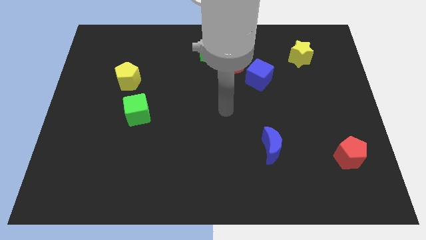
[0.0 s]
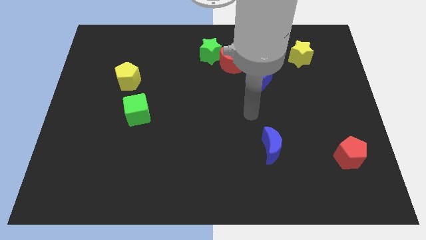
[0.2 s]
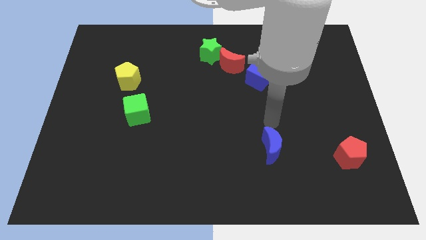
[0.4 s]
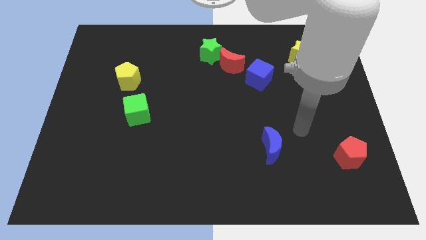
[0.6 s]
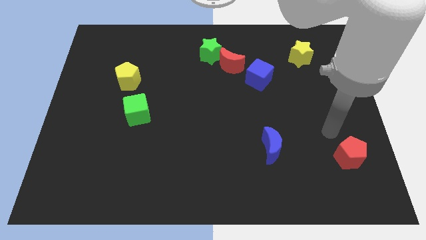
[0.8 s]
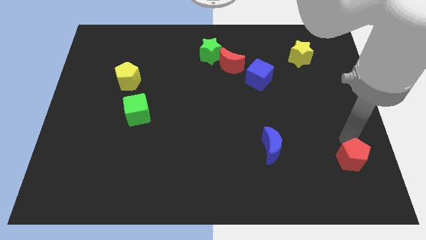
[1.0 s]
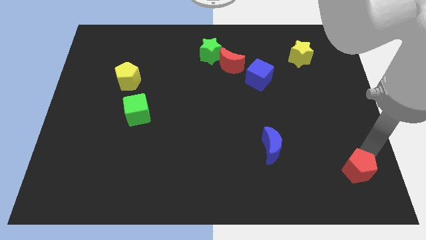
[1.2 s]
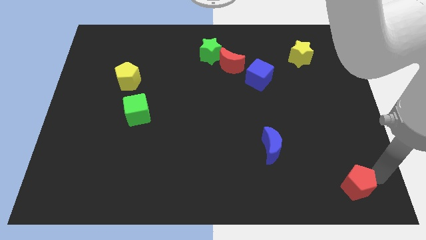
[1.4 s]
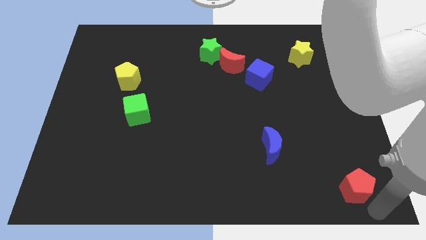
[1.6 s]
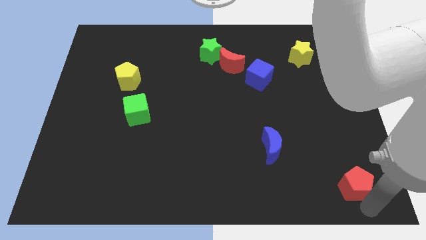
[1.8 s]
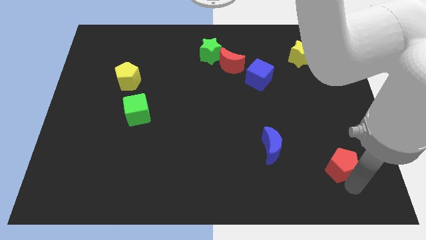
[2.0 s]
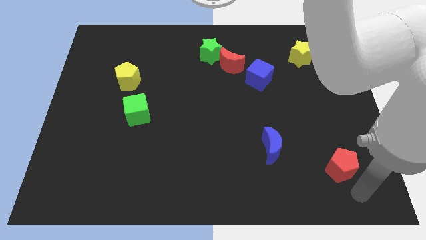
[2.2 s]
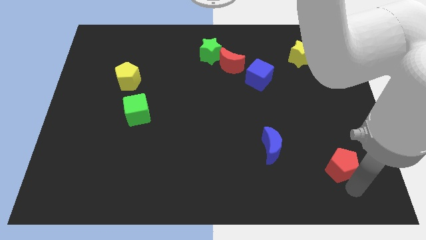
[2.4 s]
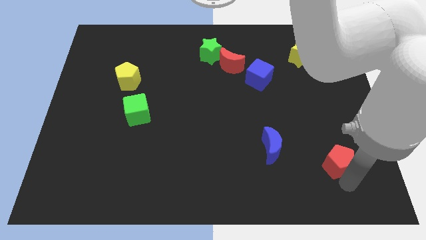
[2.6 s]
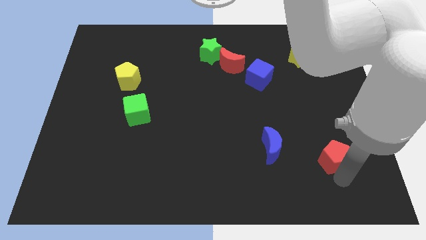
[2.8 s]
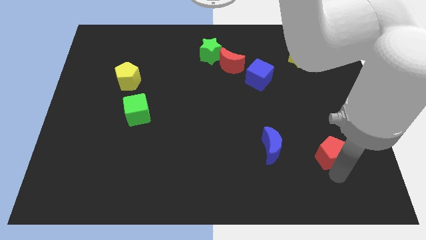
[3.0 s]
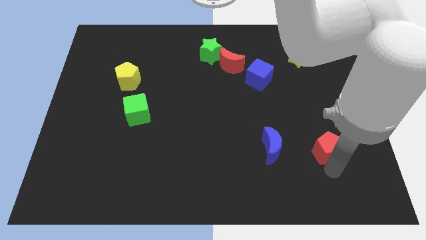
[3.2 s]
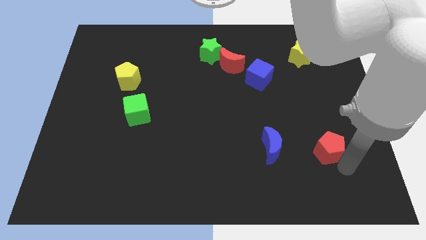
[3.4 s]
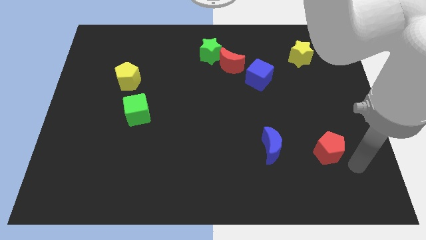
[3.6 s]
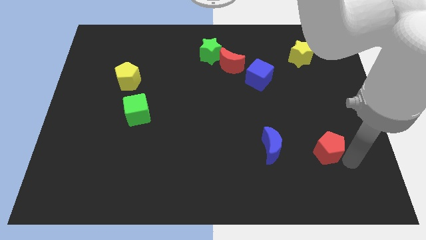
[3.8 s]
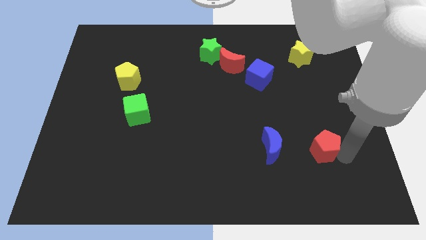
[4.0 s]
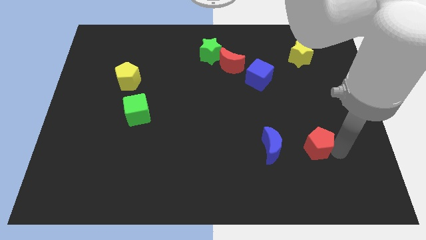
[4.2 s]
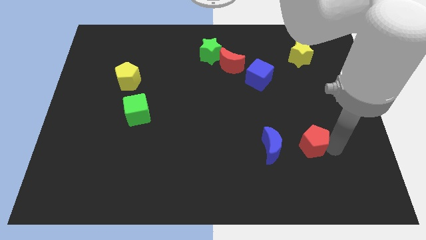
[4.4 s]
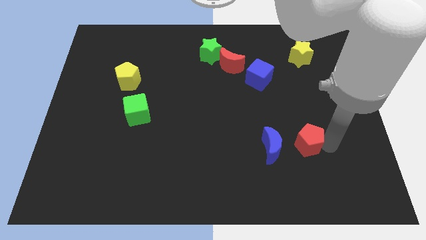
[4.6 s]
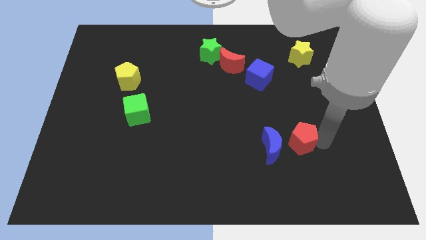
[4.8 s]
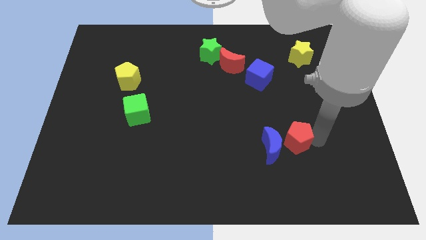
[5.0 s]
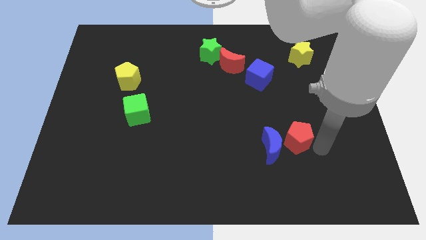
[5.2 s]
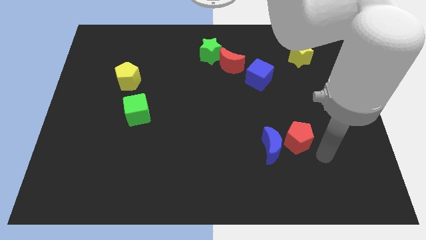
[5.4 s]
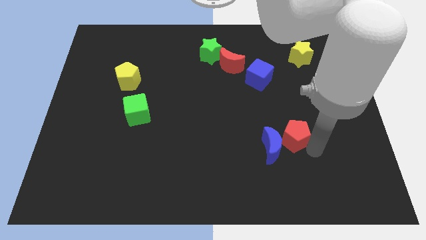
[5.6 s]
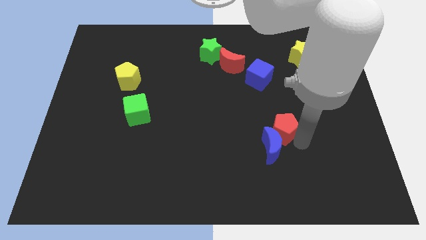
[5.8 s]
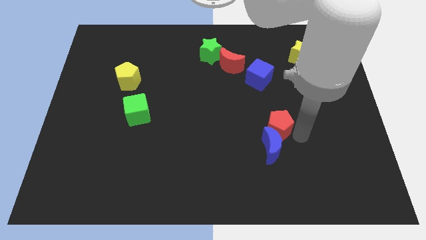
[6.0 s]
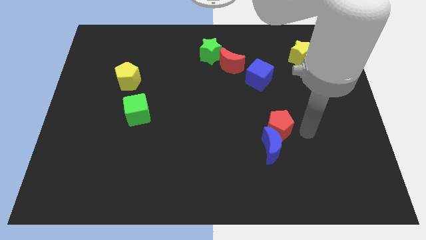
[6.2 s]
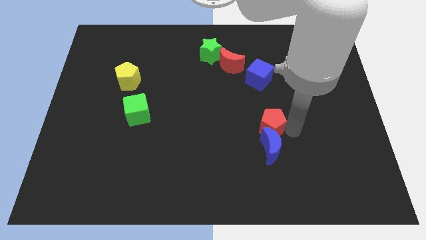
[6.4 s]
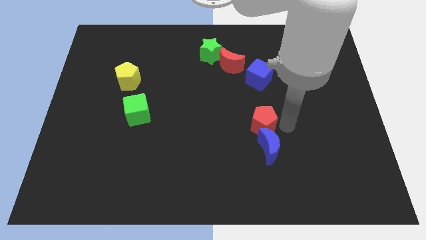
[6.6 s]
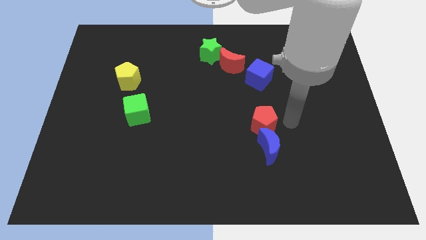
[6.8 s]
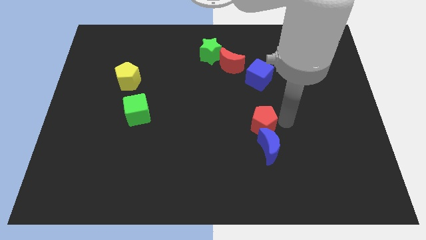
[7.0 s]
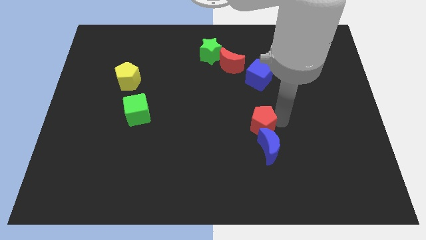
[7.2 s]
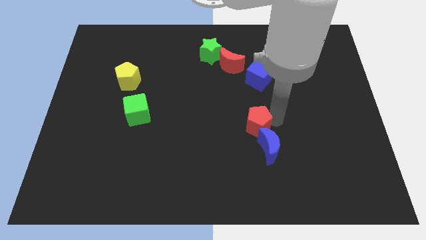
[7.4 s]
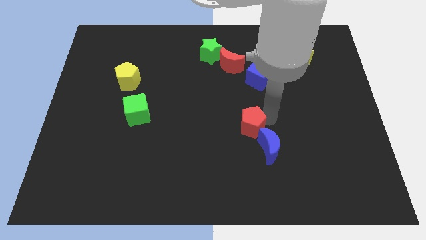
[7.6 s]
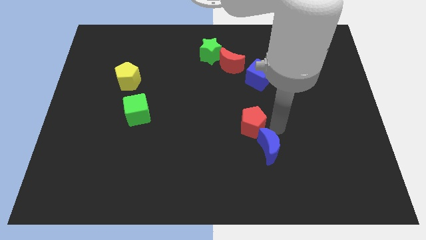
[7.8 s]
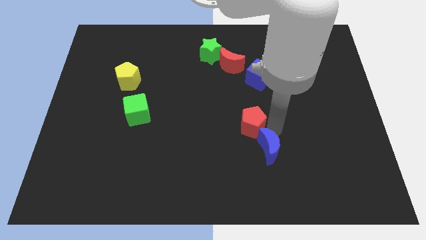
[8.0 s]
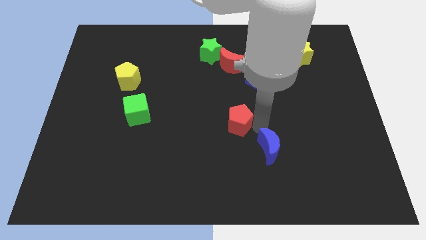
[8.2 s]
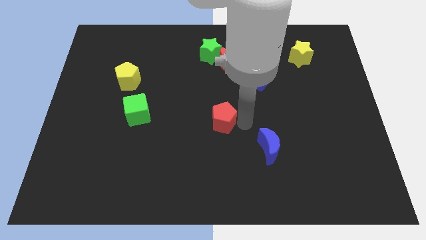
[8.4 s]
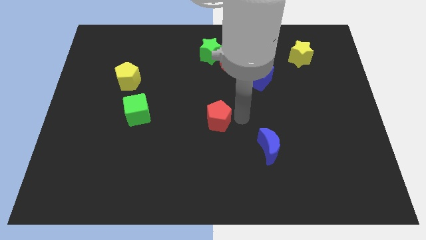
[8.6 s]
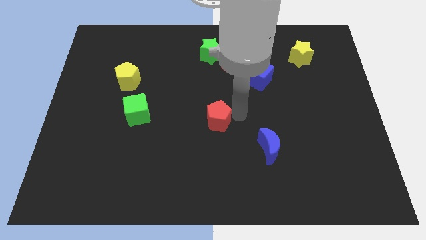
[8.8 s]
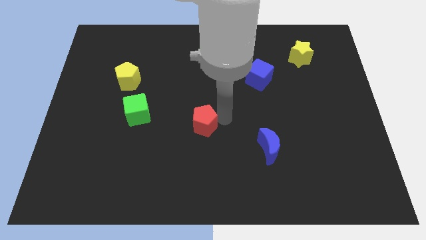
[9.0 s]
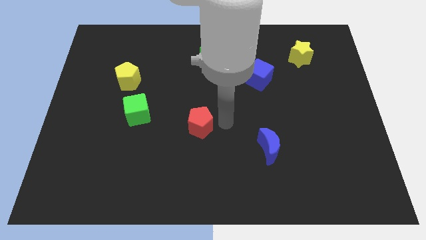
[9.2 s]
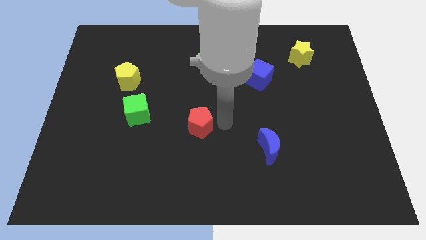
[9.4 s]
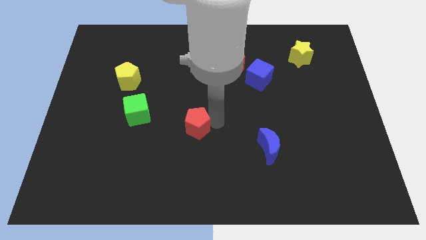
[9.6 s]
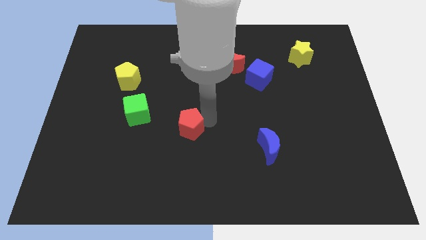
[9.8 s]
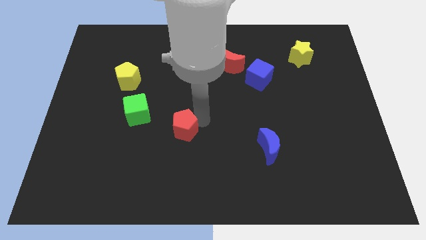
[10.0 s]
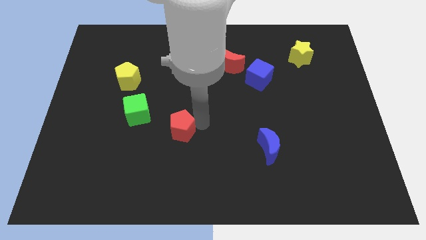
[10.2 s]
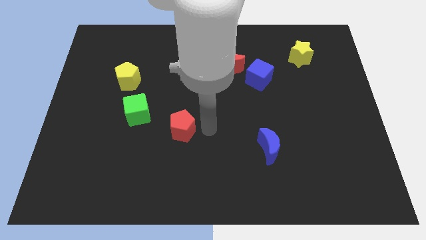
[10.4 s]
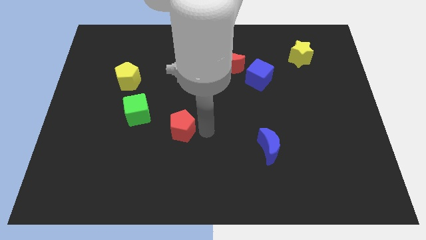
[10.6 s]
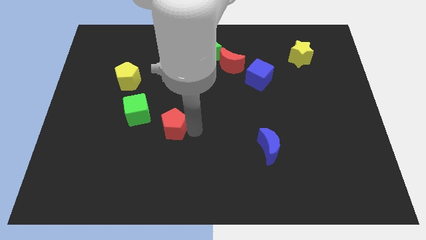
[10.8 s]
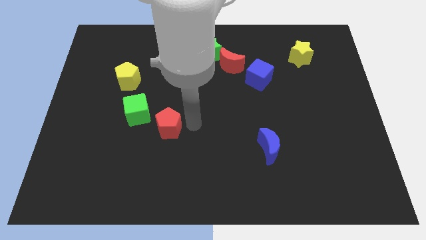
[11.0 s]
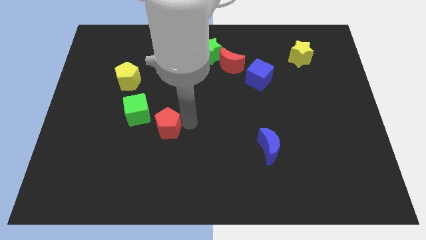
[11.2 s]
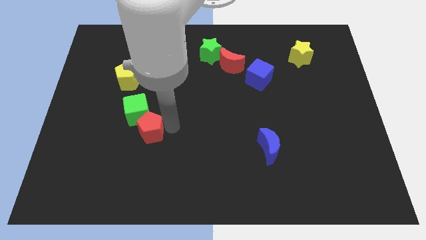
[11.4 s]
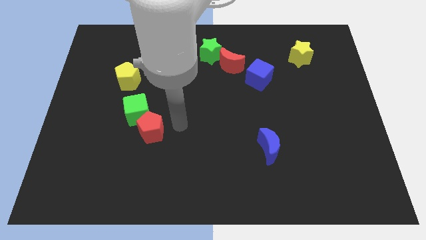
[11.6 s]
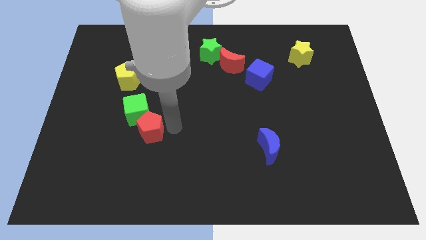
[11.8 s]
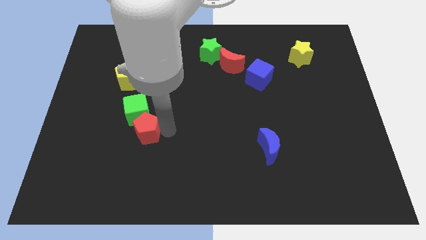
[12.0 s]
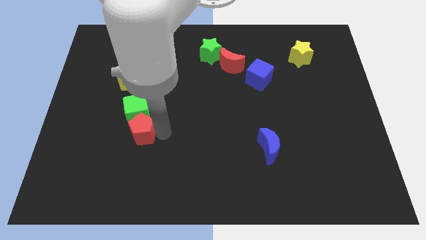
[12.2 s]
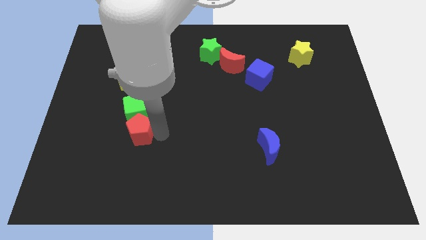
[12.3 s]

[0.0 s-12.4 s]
slide the red pentagon diagonally down and to the left of the green cube
